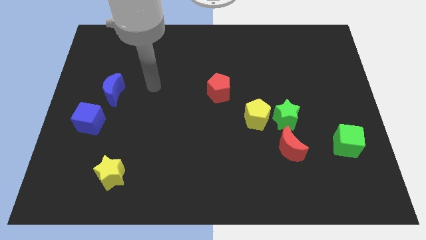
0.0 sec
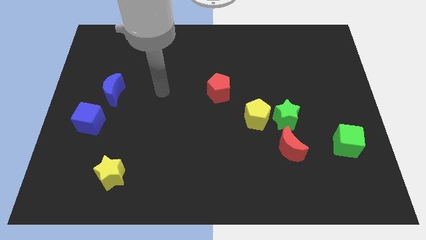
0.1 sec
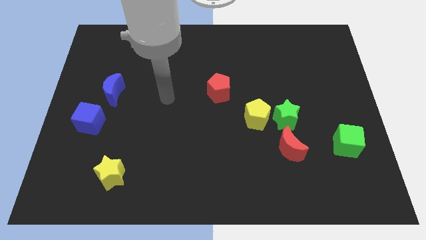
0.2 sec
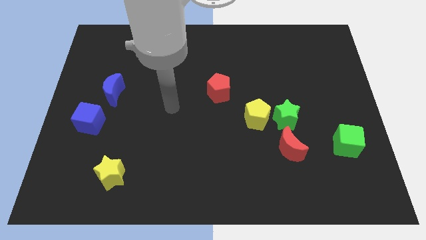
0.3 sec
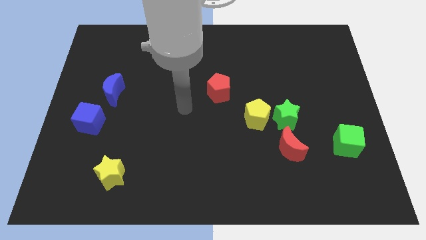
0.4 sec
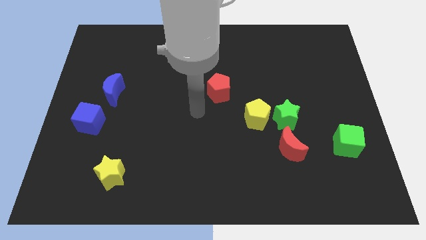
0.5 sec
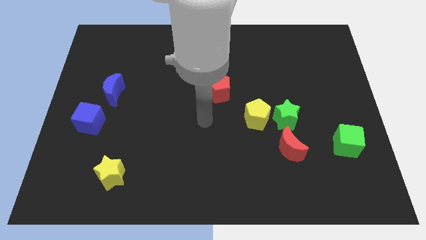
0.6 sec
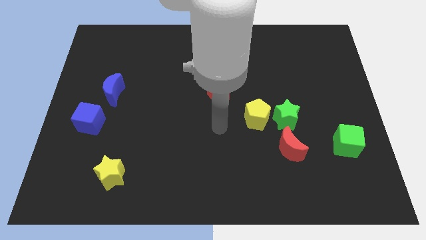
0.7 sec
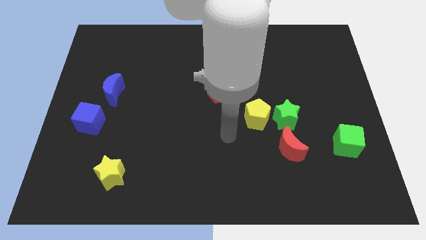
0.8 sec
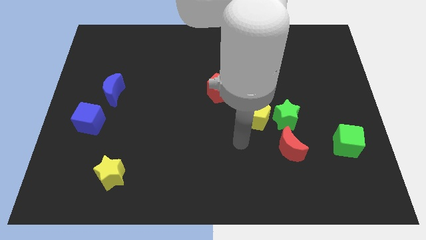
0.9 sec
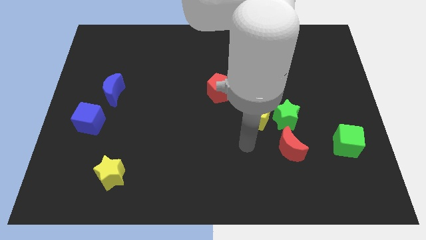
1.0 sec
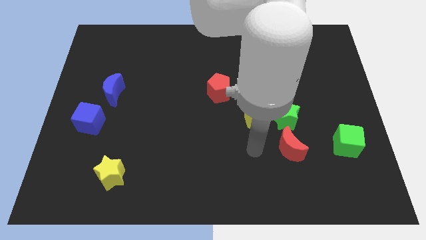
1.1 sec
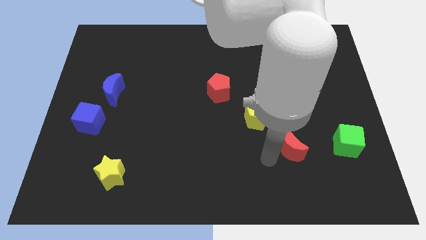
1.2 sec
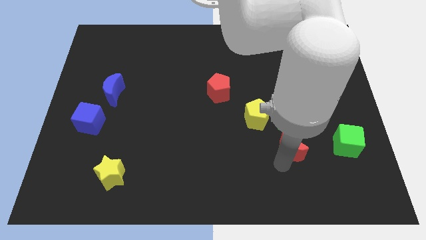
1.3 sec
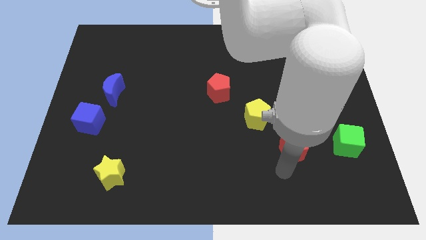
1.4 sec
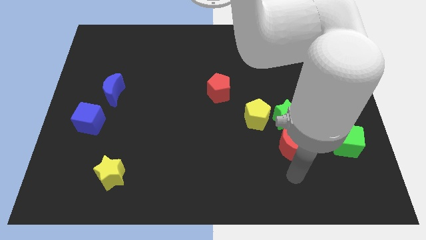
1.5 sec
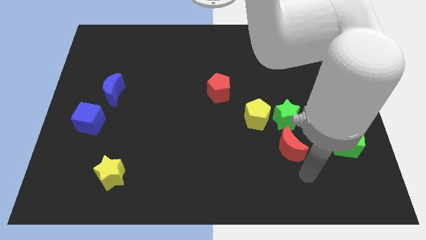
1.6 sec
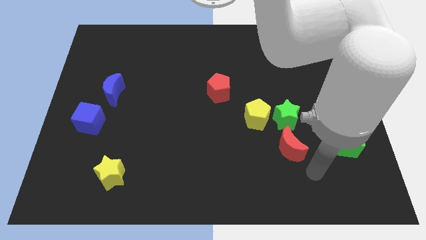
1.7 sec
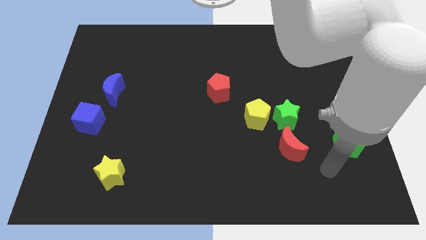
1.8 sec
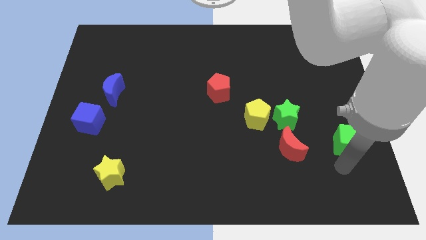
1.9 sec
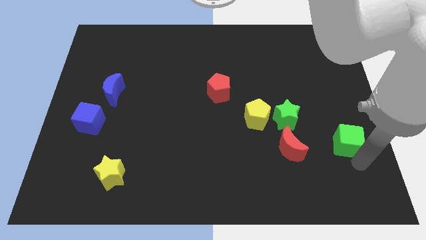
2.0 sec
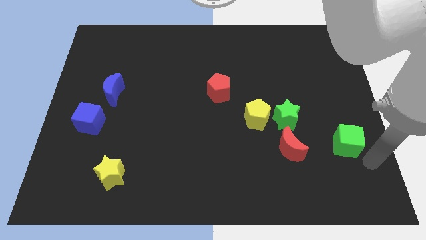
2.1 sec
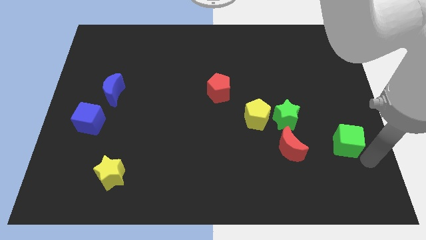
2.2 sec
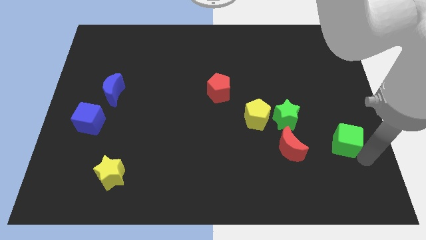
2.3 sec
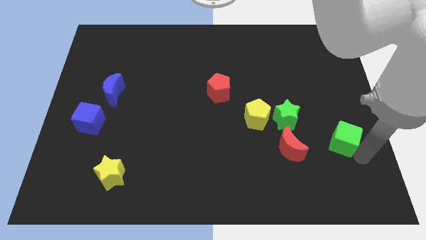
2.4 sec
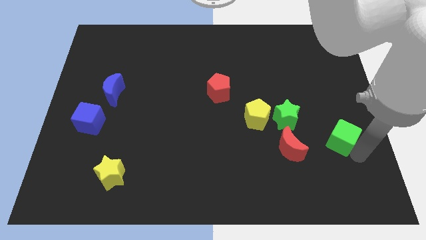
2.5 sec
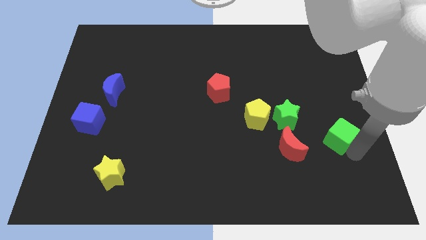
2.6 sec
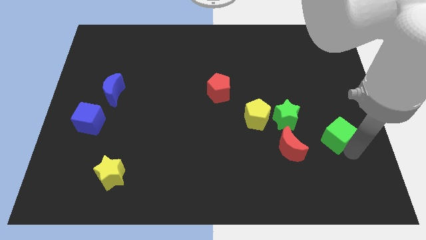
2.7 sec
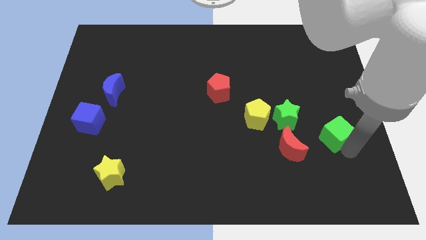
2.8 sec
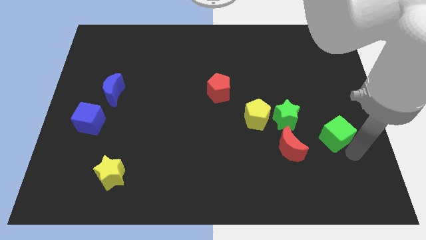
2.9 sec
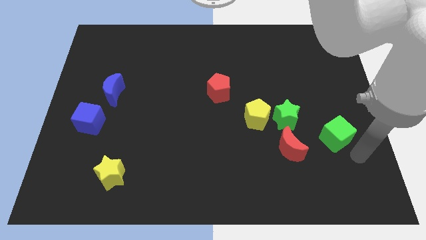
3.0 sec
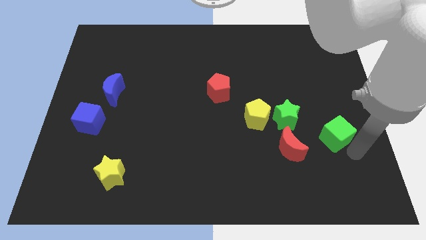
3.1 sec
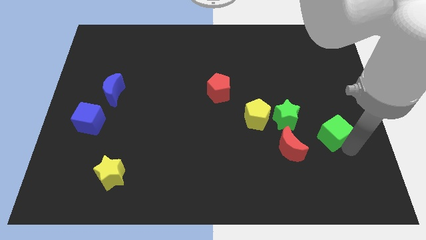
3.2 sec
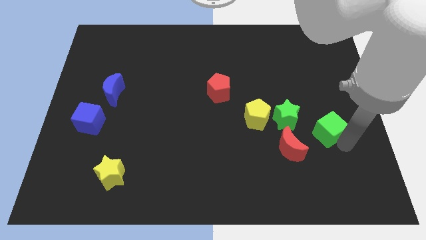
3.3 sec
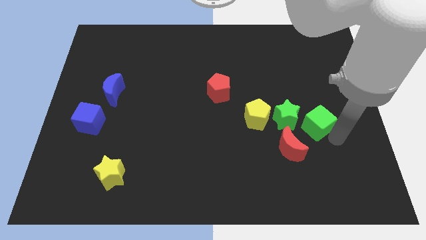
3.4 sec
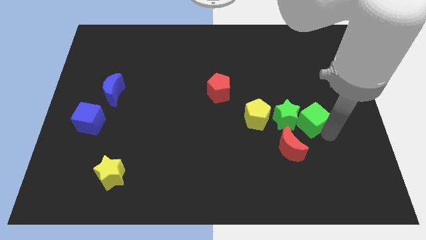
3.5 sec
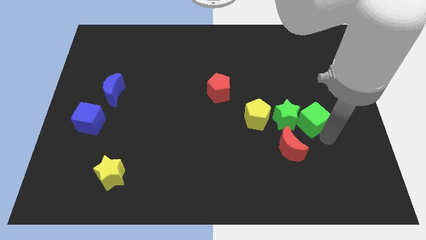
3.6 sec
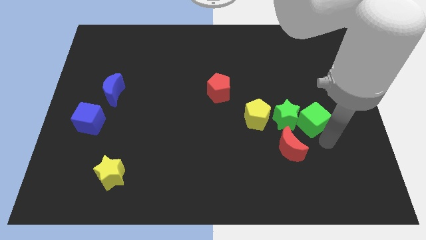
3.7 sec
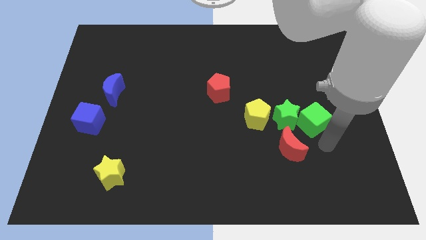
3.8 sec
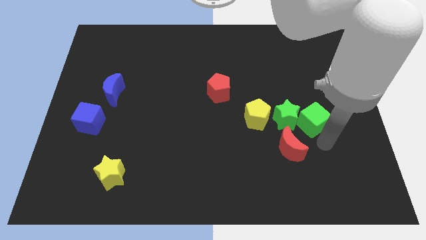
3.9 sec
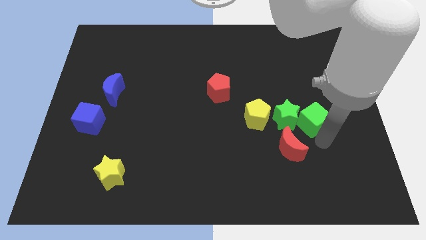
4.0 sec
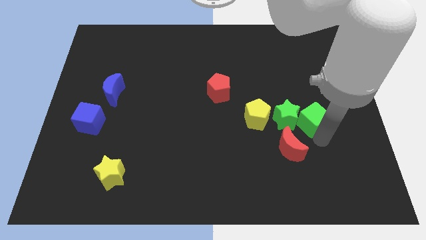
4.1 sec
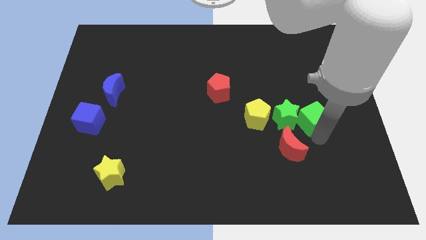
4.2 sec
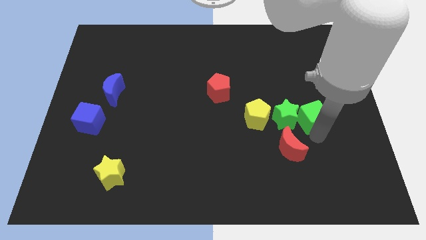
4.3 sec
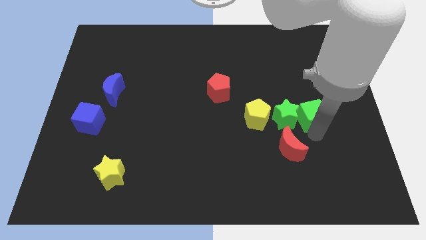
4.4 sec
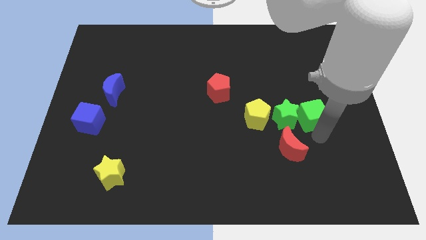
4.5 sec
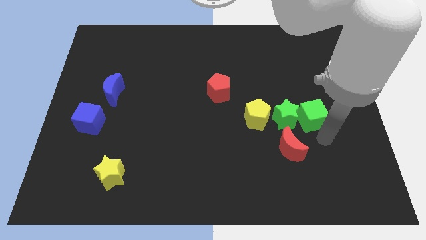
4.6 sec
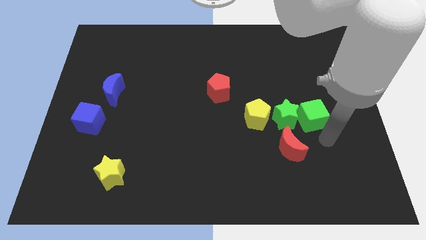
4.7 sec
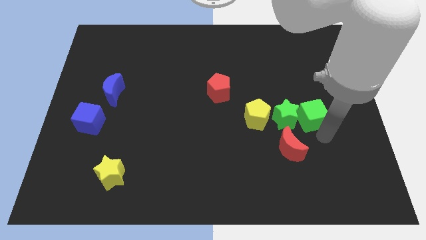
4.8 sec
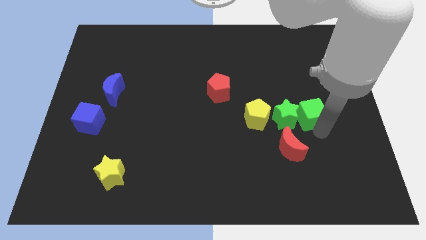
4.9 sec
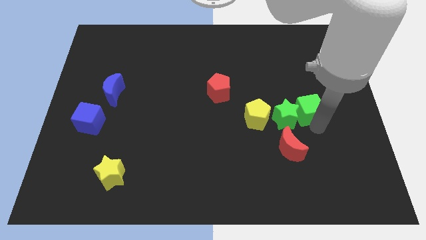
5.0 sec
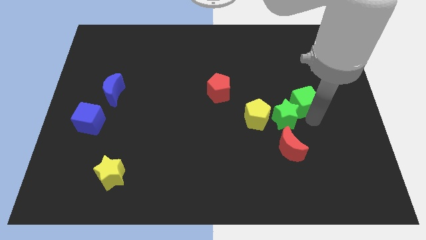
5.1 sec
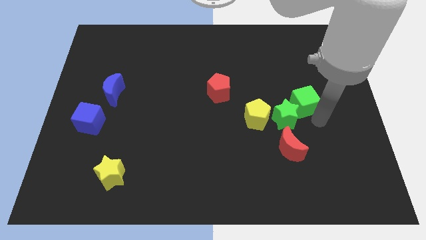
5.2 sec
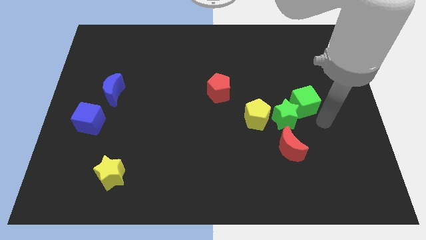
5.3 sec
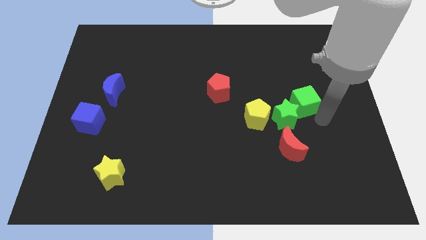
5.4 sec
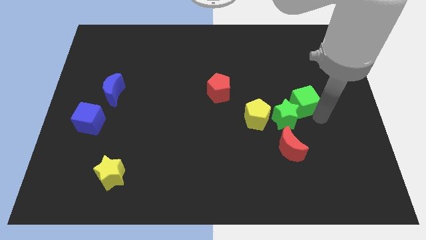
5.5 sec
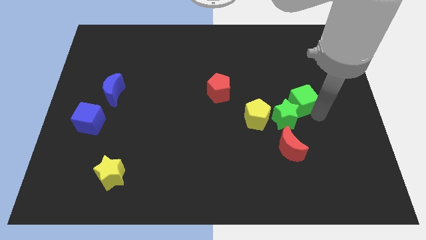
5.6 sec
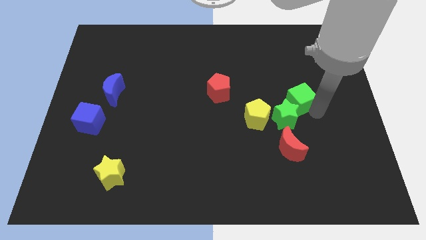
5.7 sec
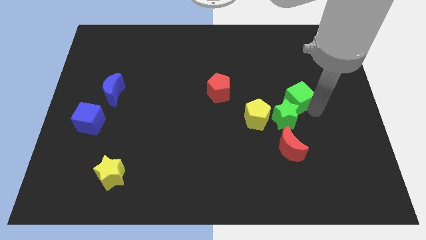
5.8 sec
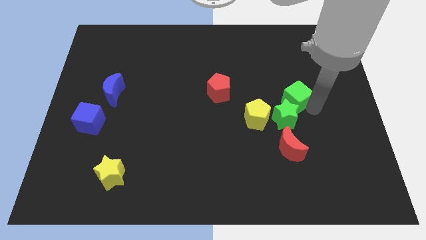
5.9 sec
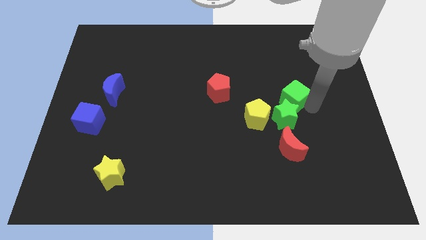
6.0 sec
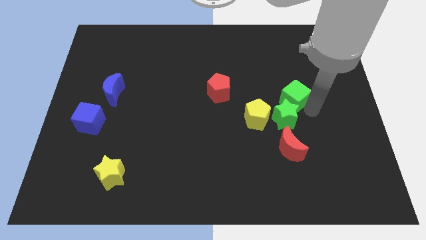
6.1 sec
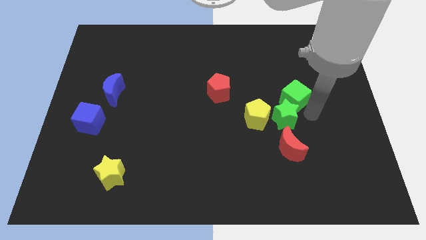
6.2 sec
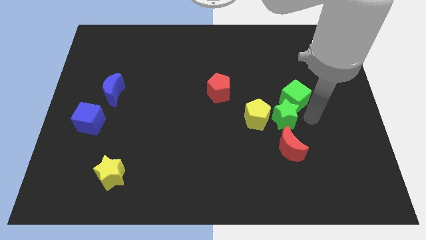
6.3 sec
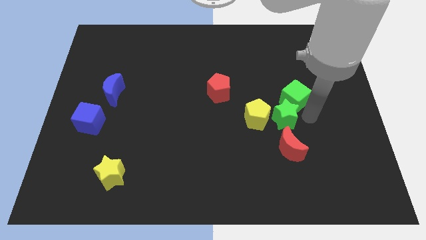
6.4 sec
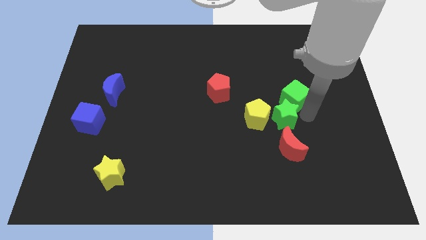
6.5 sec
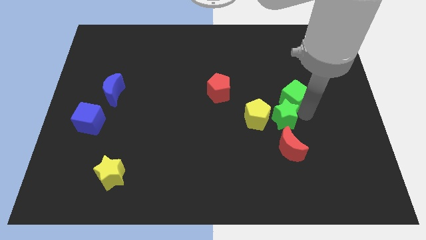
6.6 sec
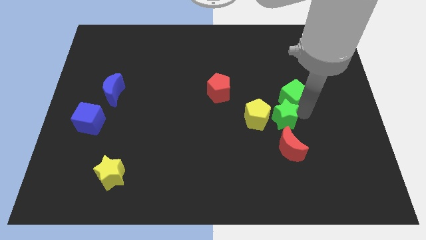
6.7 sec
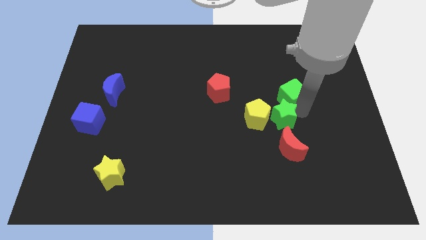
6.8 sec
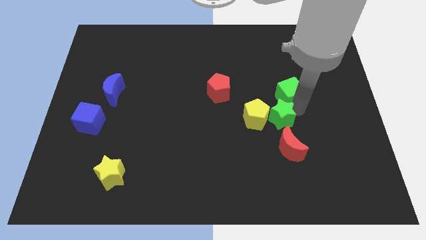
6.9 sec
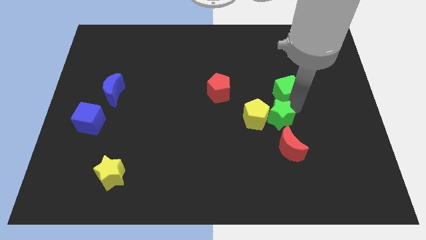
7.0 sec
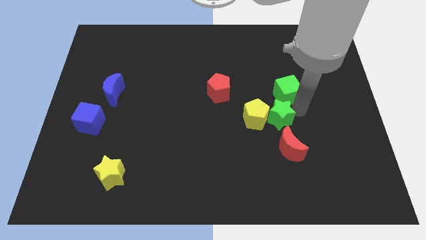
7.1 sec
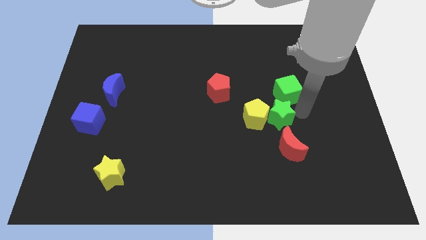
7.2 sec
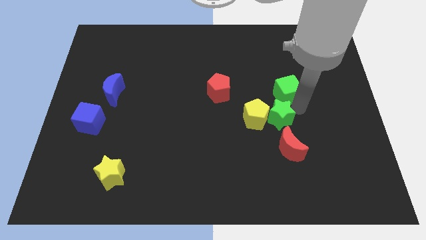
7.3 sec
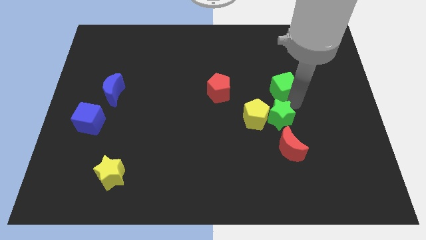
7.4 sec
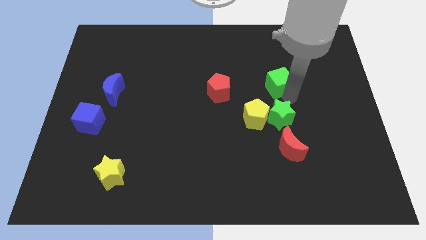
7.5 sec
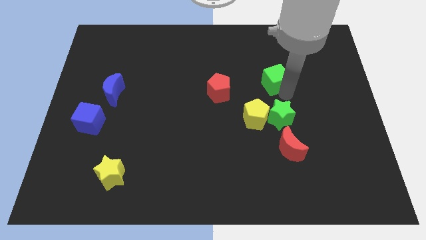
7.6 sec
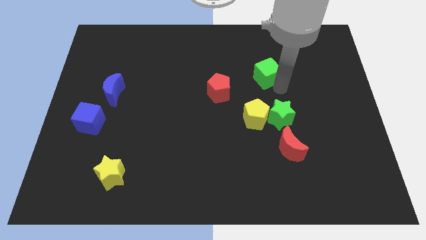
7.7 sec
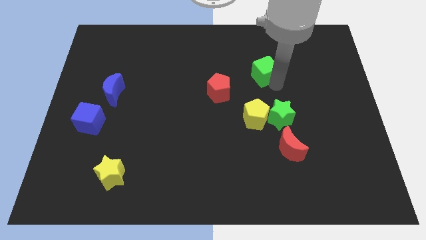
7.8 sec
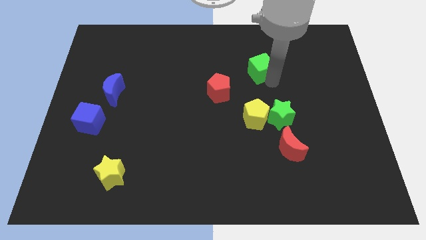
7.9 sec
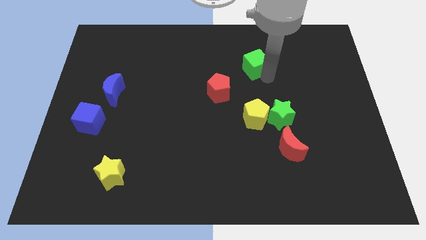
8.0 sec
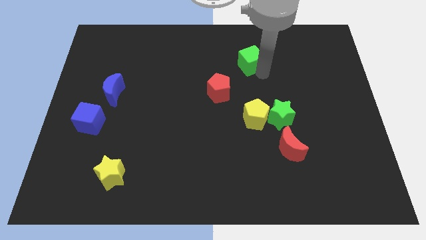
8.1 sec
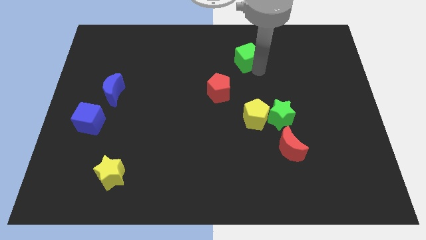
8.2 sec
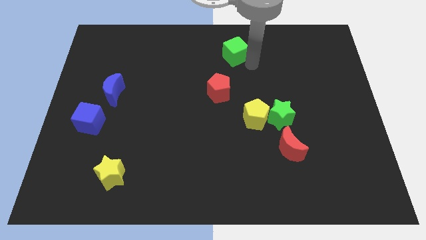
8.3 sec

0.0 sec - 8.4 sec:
slide the green cube to the towards your base
